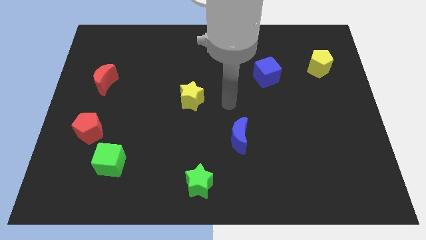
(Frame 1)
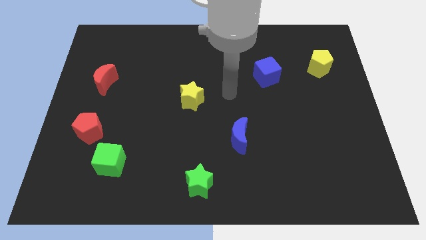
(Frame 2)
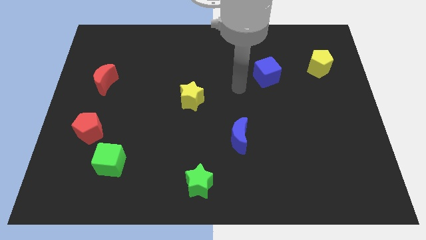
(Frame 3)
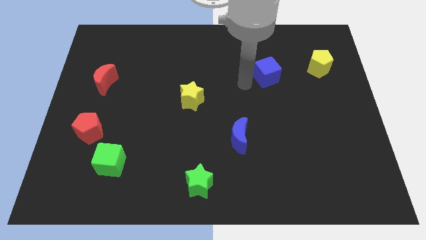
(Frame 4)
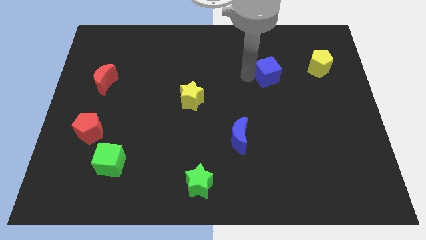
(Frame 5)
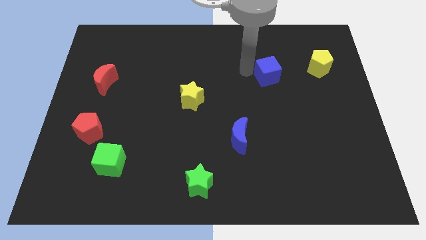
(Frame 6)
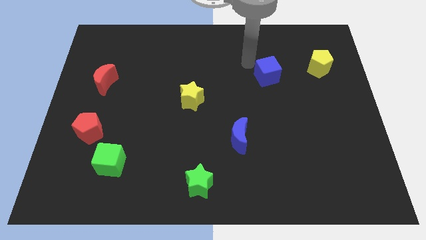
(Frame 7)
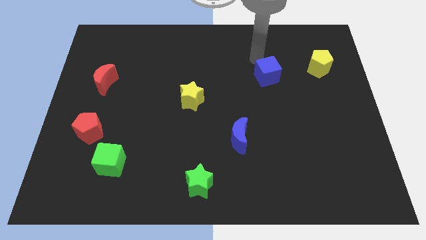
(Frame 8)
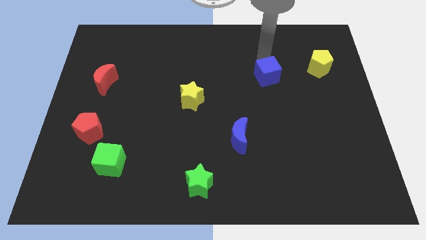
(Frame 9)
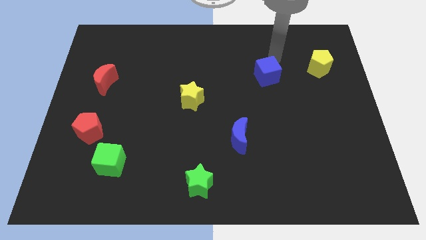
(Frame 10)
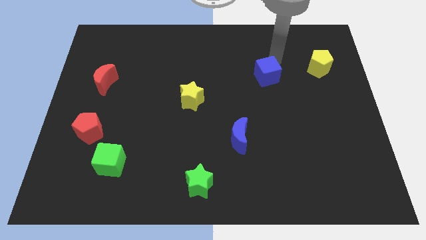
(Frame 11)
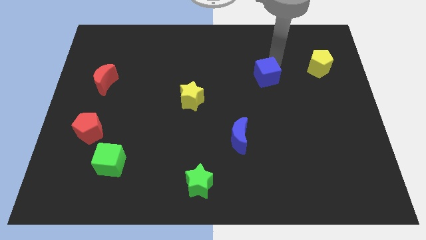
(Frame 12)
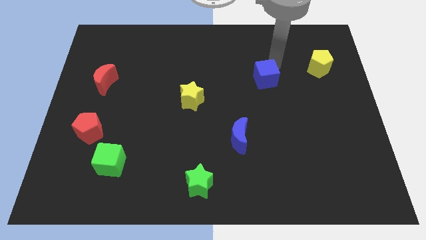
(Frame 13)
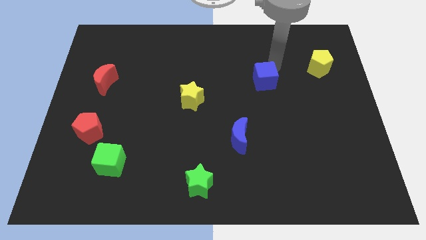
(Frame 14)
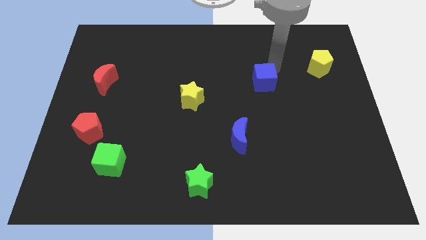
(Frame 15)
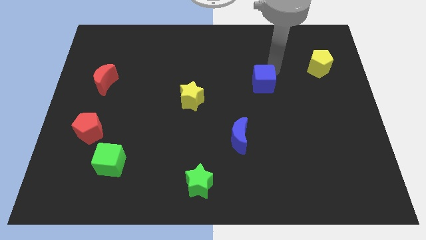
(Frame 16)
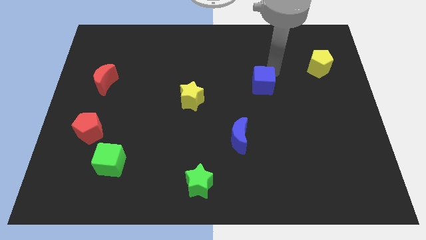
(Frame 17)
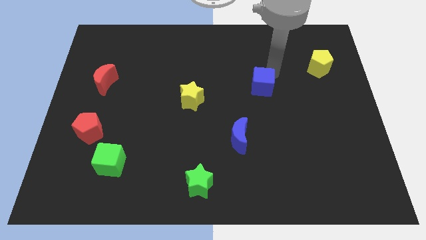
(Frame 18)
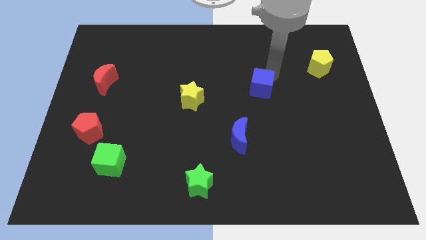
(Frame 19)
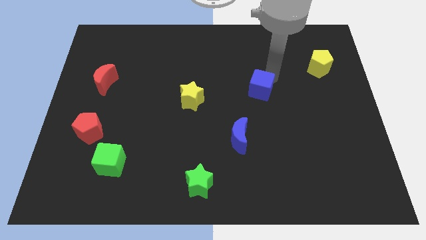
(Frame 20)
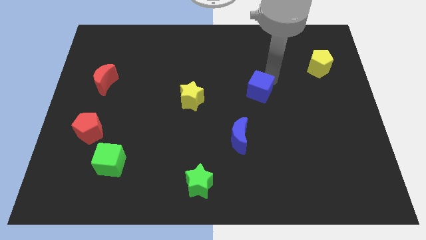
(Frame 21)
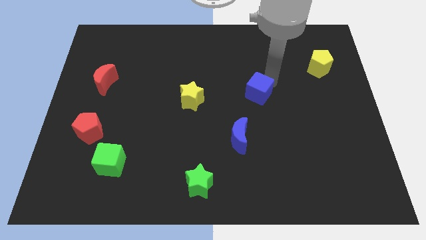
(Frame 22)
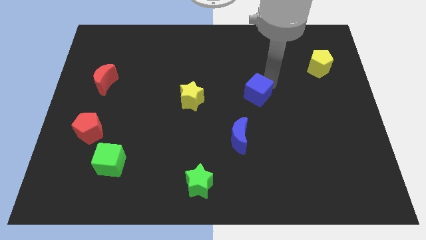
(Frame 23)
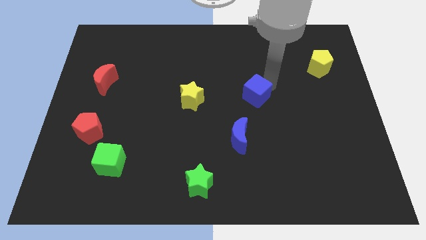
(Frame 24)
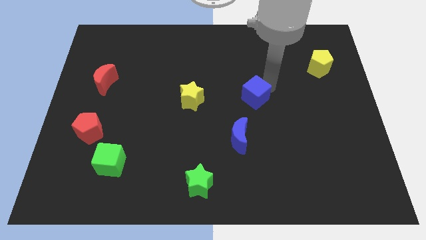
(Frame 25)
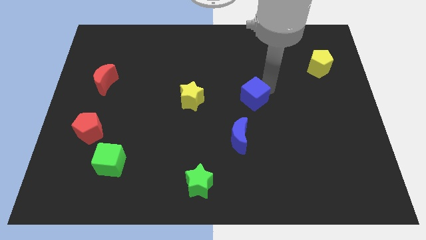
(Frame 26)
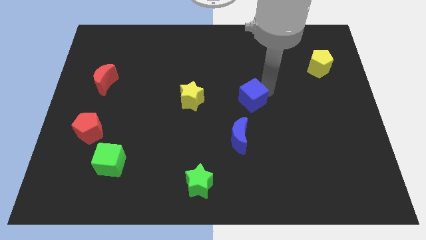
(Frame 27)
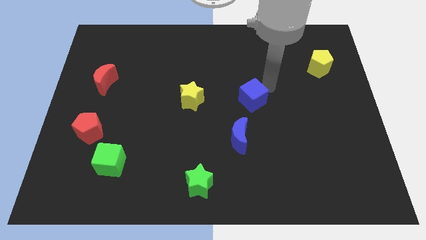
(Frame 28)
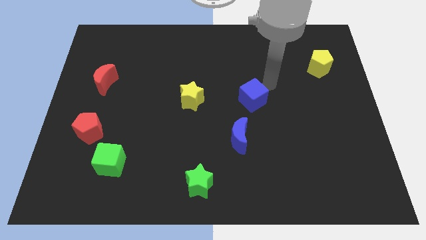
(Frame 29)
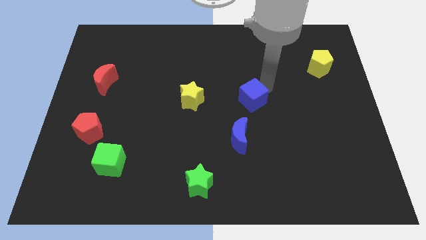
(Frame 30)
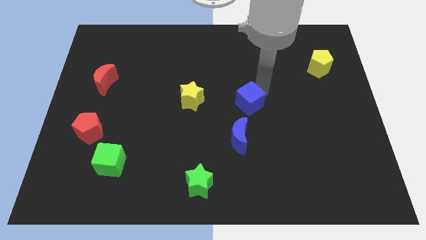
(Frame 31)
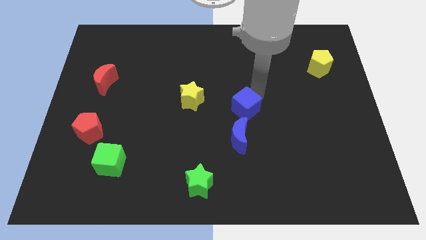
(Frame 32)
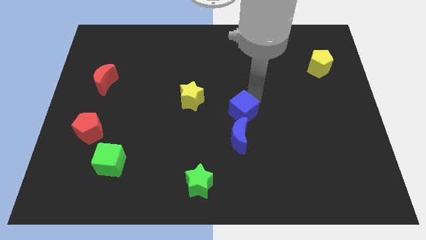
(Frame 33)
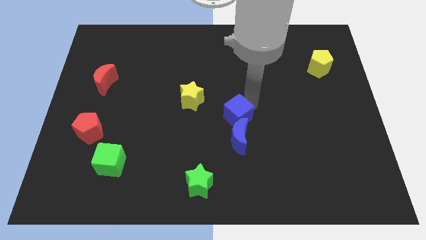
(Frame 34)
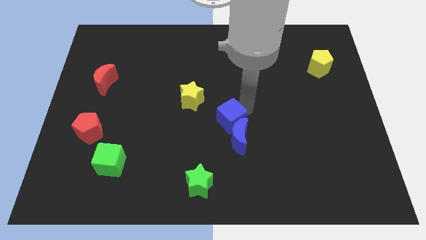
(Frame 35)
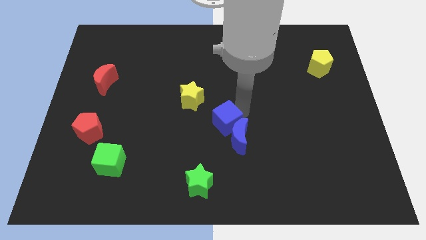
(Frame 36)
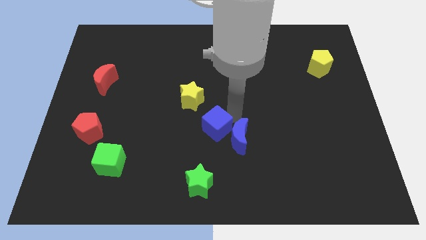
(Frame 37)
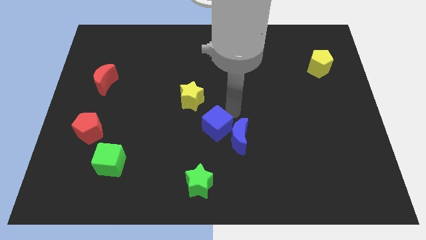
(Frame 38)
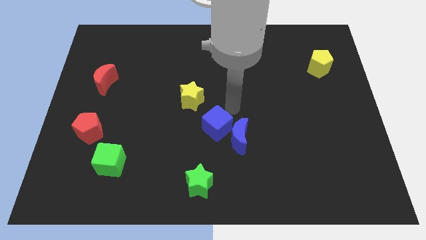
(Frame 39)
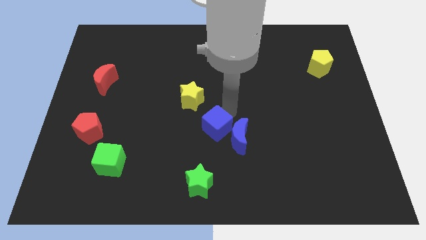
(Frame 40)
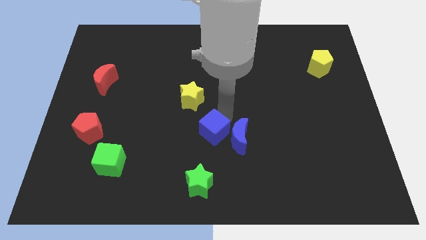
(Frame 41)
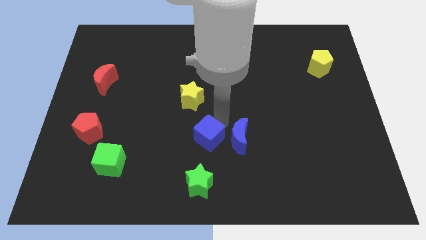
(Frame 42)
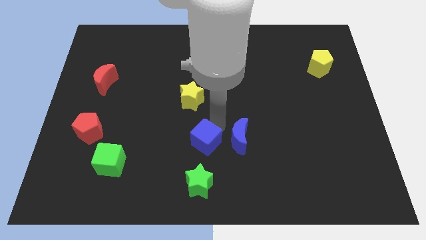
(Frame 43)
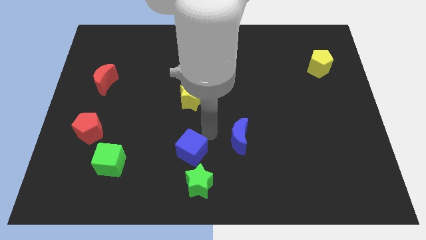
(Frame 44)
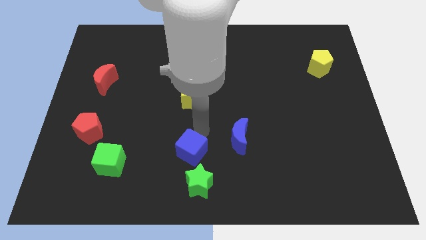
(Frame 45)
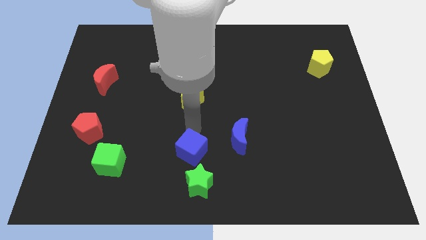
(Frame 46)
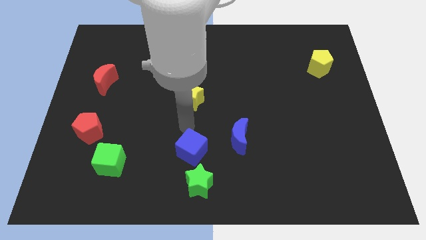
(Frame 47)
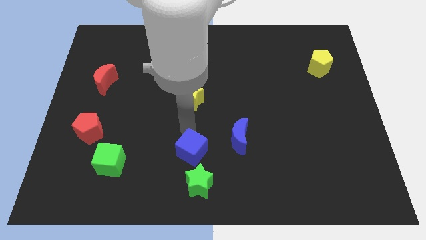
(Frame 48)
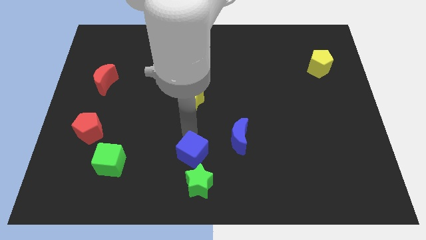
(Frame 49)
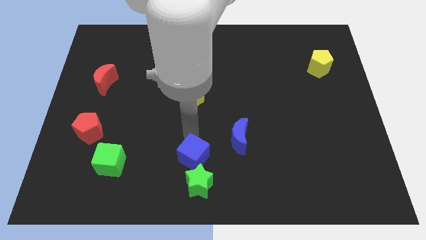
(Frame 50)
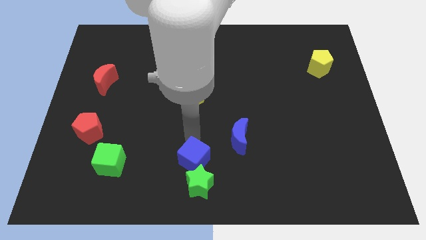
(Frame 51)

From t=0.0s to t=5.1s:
slide the blue cube to the green star

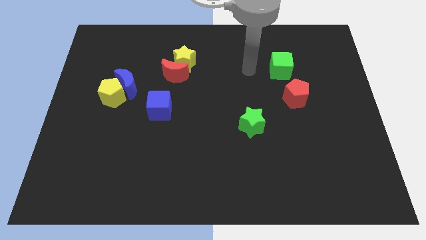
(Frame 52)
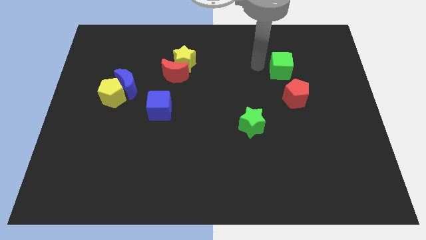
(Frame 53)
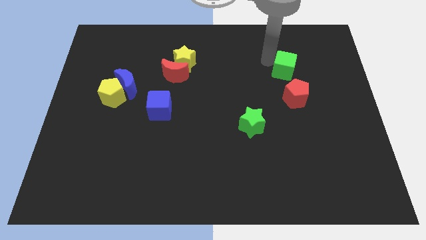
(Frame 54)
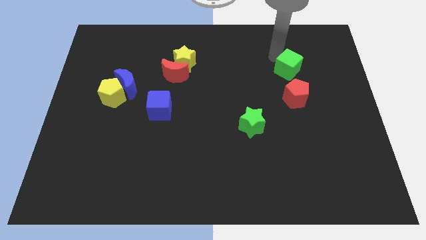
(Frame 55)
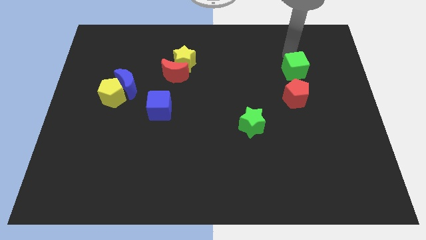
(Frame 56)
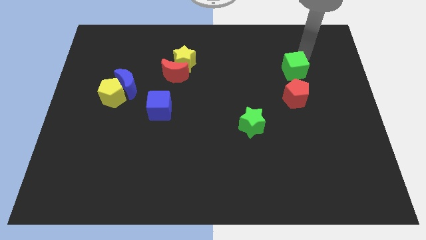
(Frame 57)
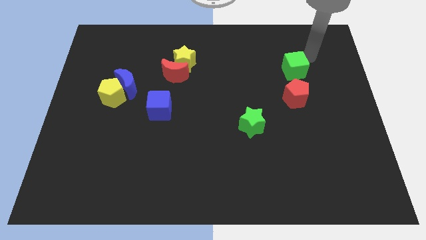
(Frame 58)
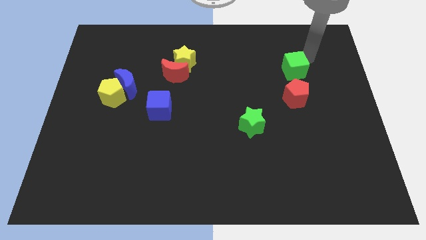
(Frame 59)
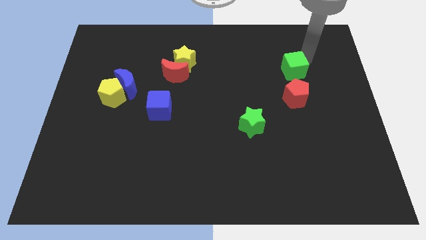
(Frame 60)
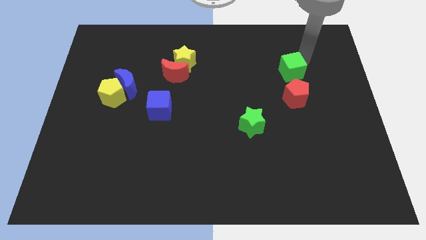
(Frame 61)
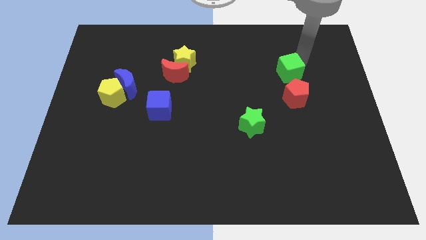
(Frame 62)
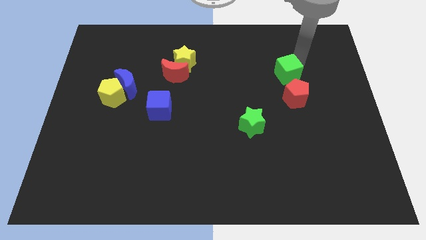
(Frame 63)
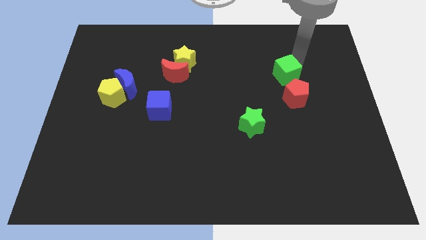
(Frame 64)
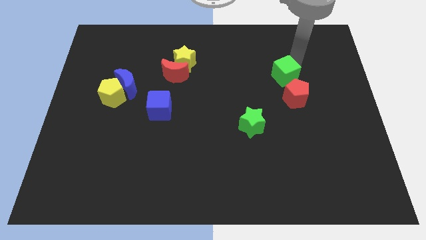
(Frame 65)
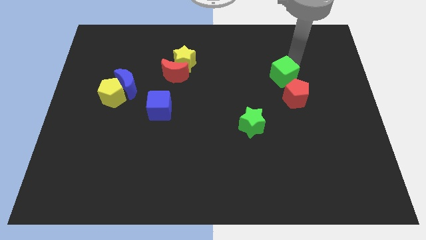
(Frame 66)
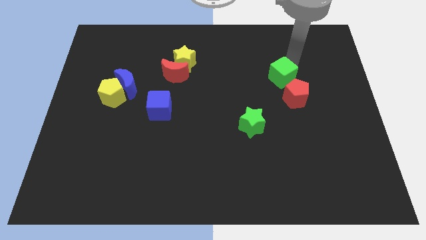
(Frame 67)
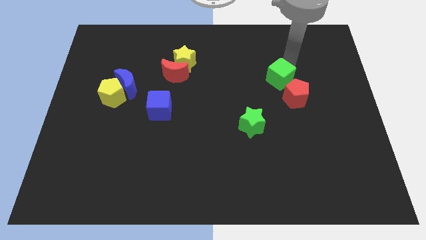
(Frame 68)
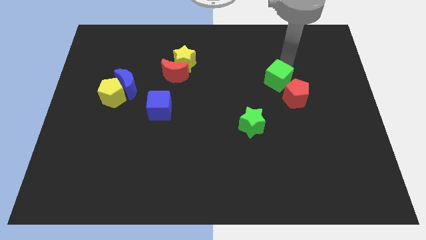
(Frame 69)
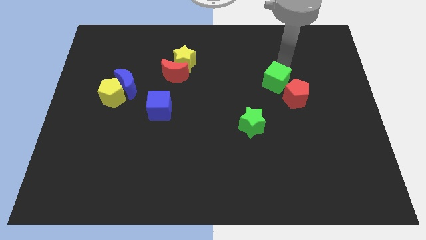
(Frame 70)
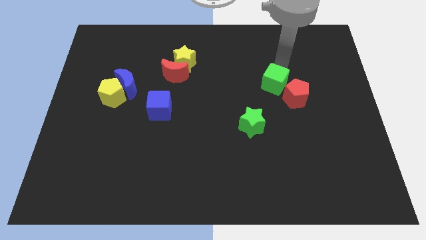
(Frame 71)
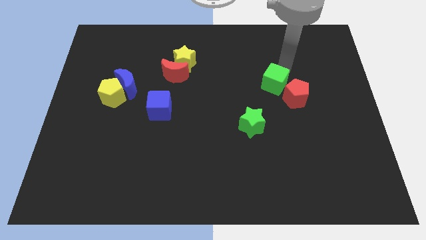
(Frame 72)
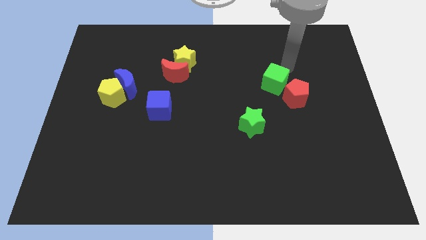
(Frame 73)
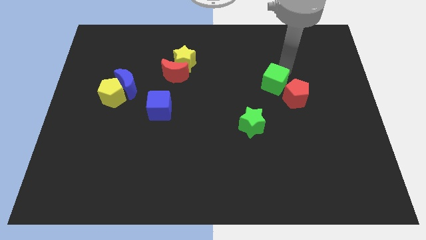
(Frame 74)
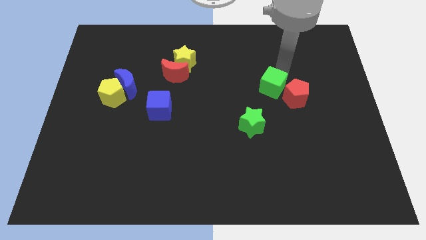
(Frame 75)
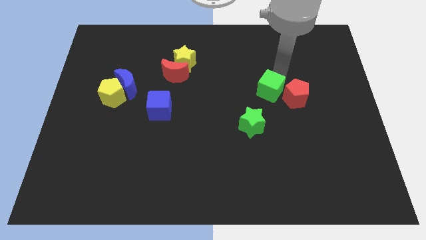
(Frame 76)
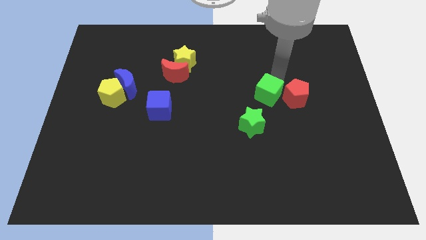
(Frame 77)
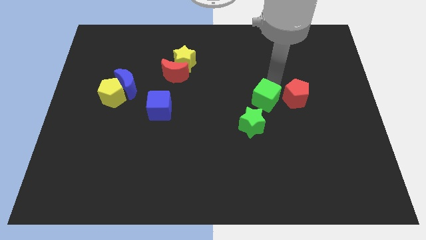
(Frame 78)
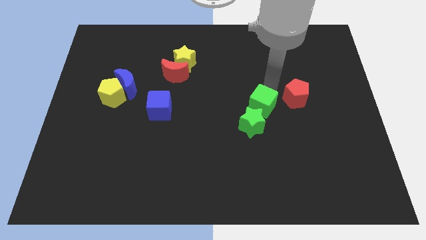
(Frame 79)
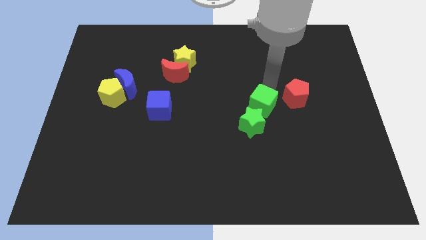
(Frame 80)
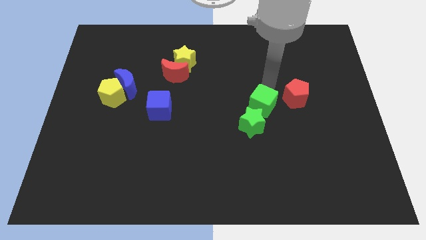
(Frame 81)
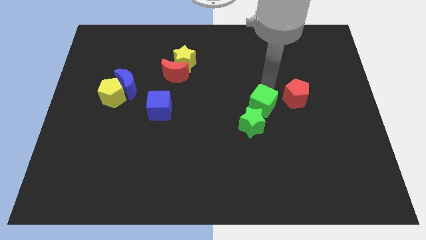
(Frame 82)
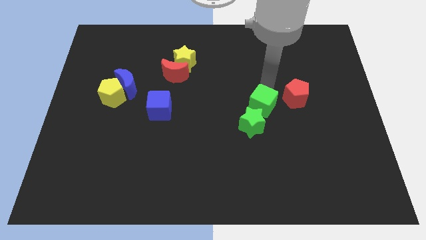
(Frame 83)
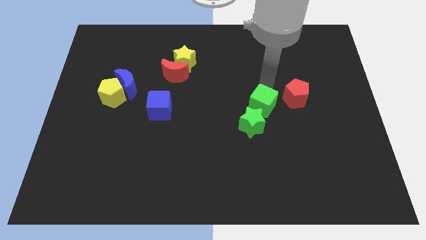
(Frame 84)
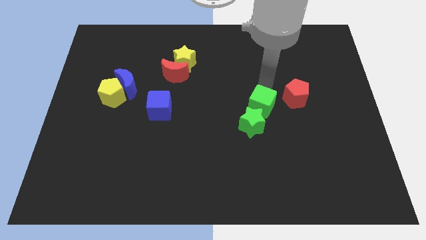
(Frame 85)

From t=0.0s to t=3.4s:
slide the green cube close to the green star
